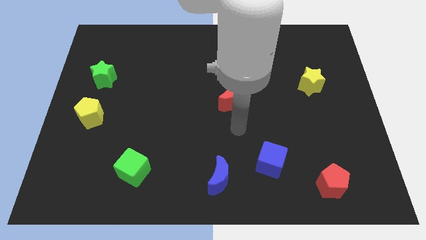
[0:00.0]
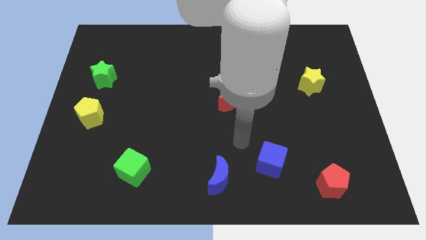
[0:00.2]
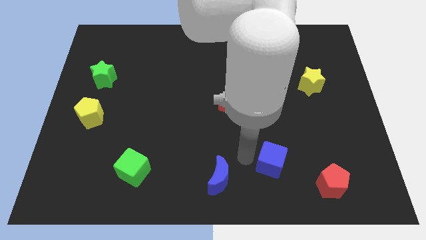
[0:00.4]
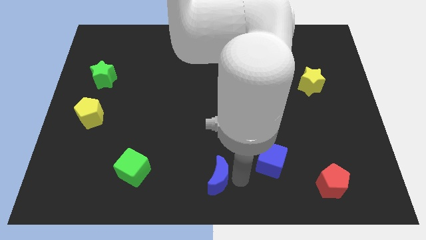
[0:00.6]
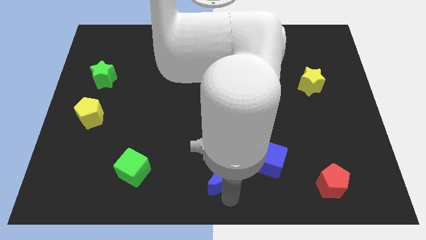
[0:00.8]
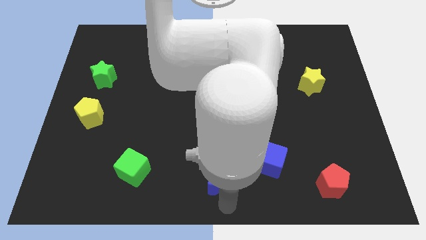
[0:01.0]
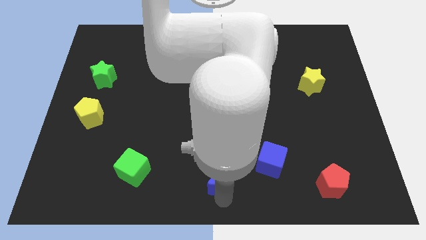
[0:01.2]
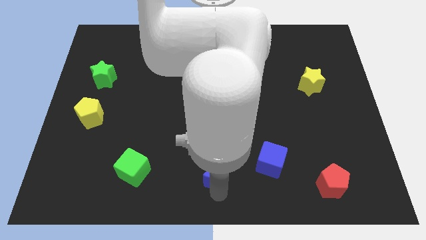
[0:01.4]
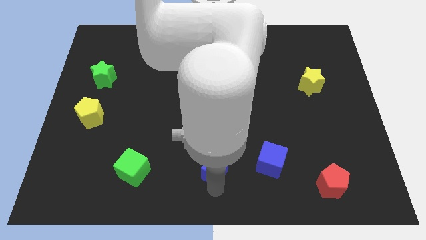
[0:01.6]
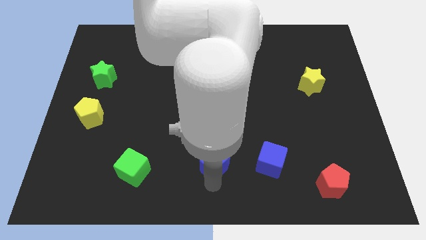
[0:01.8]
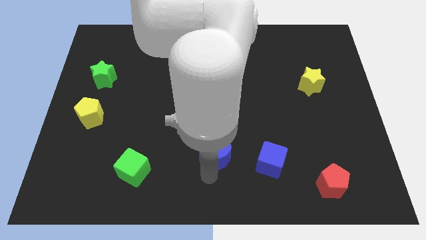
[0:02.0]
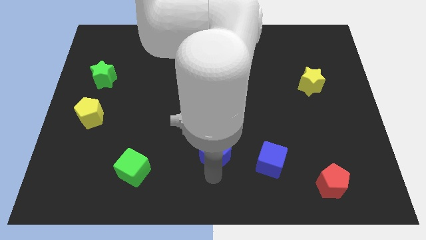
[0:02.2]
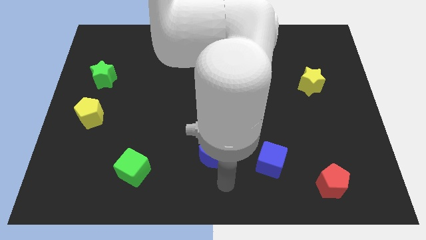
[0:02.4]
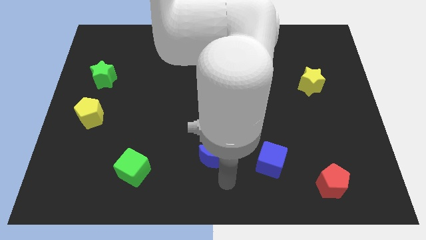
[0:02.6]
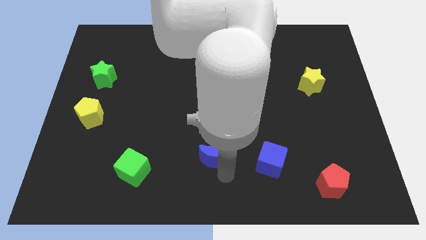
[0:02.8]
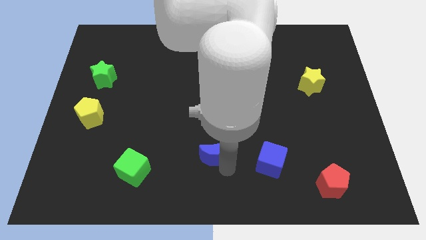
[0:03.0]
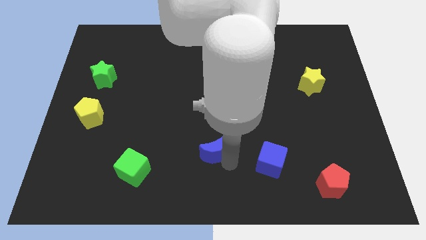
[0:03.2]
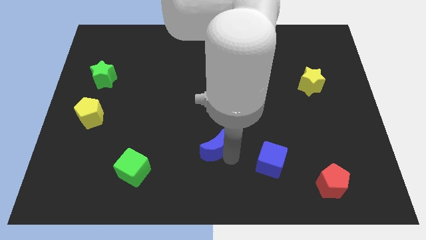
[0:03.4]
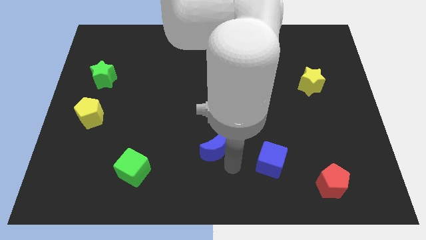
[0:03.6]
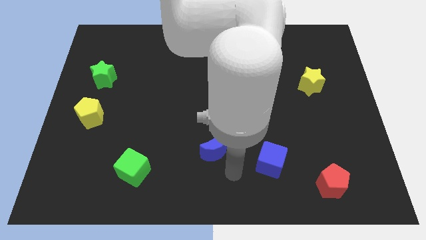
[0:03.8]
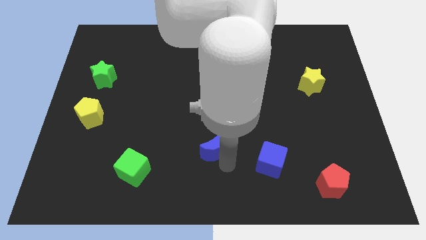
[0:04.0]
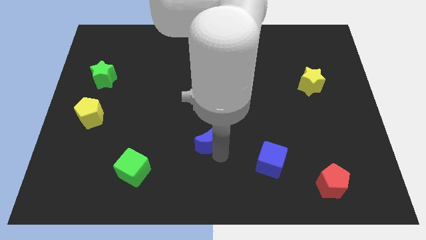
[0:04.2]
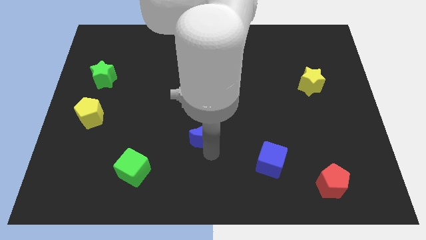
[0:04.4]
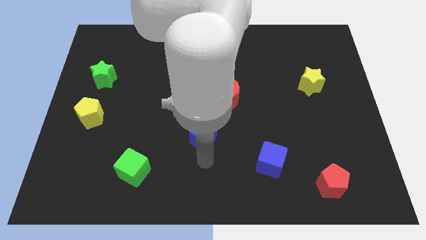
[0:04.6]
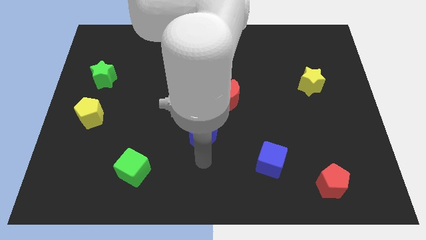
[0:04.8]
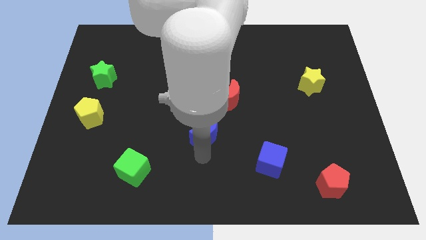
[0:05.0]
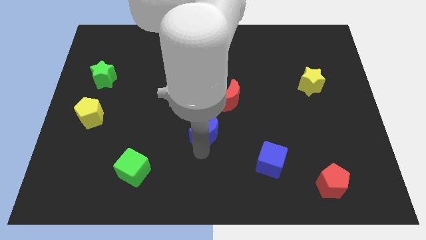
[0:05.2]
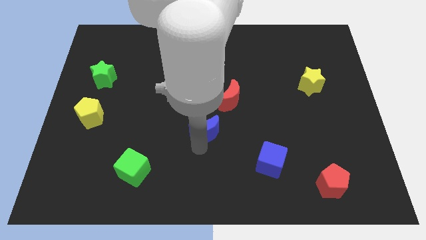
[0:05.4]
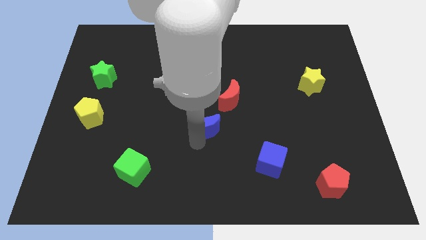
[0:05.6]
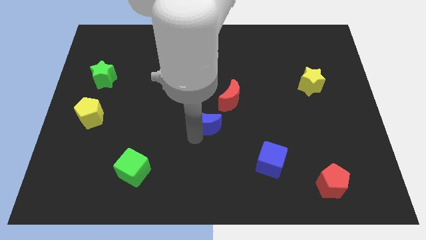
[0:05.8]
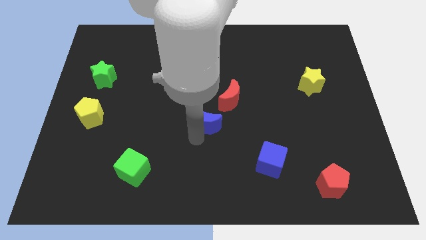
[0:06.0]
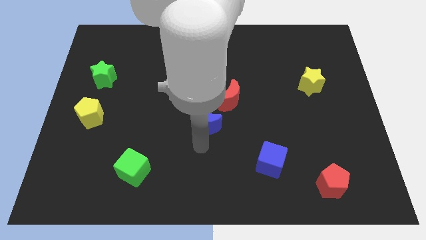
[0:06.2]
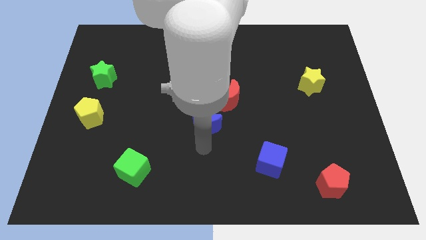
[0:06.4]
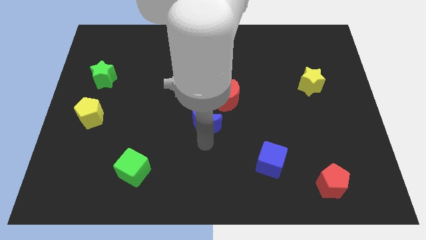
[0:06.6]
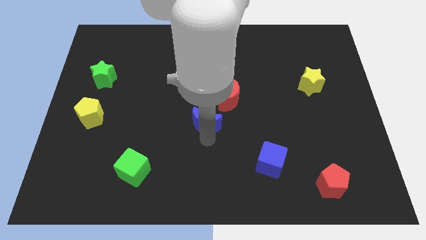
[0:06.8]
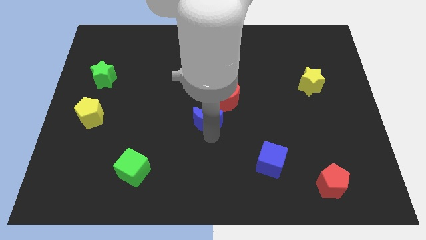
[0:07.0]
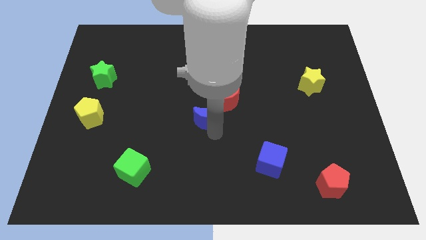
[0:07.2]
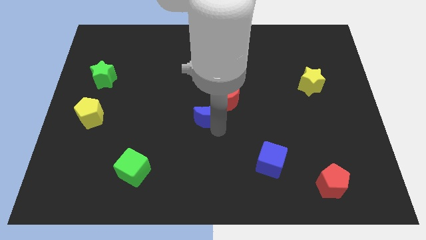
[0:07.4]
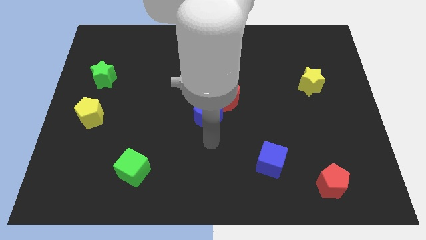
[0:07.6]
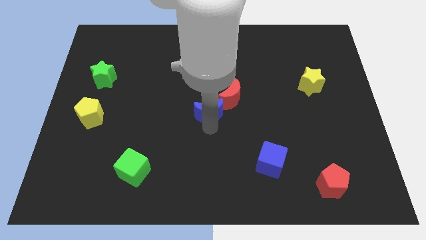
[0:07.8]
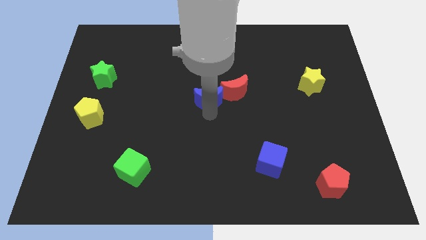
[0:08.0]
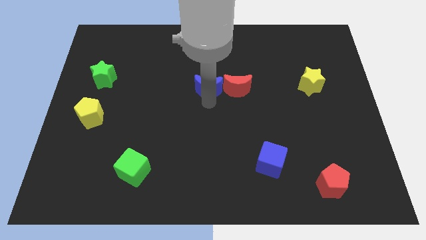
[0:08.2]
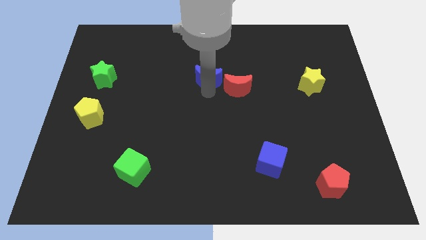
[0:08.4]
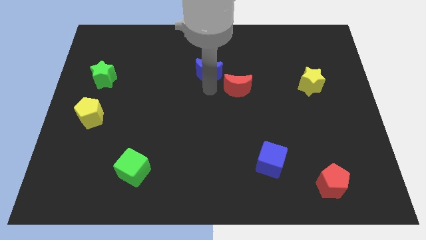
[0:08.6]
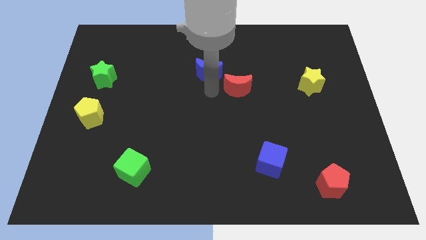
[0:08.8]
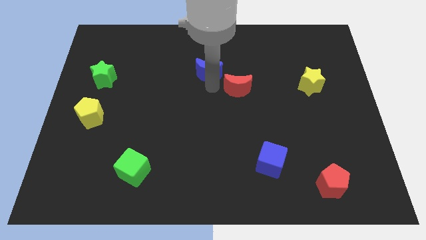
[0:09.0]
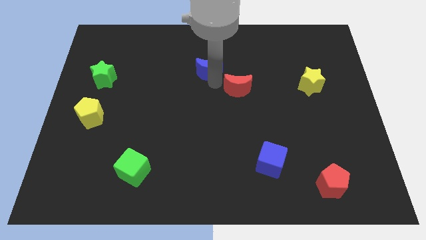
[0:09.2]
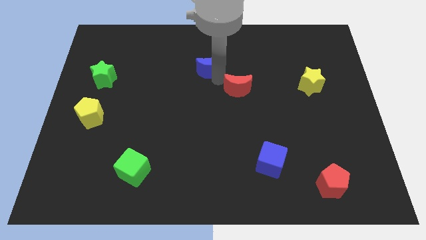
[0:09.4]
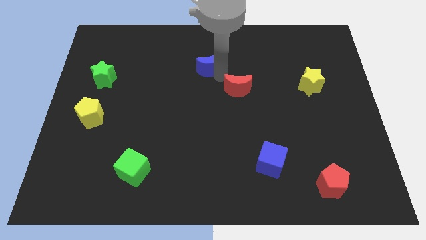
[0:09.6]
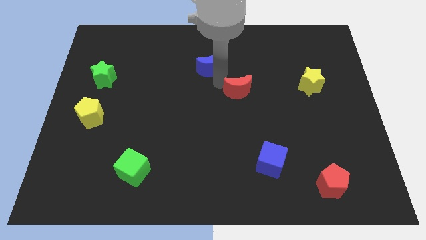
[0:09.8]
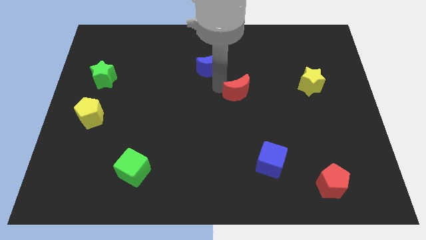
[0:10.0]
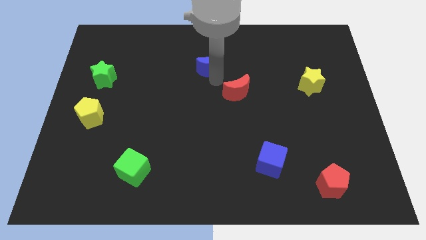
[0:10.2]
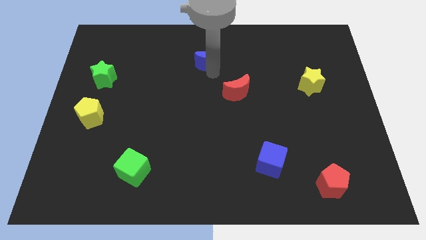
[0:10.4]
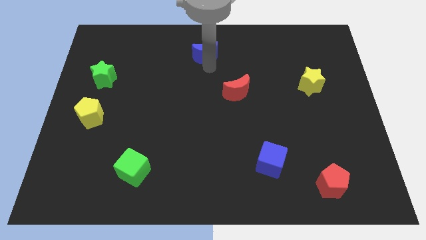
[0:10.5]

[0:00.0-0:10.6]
slide the blue moon to the top side

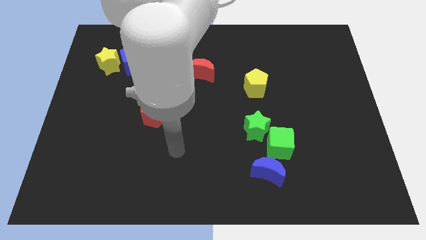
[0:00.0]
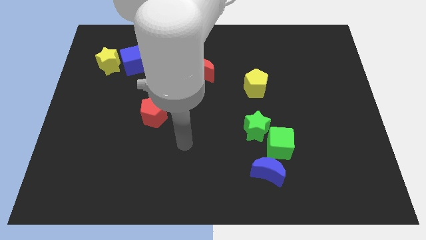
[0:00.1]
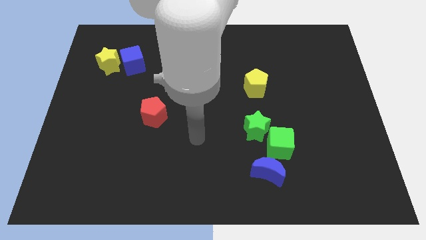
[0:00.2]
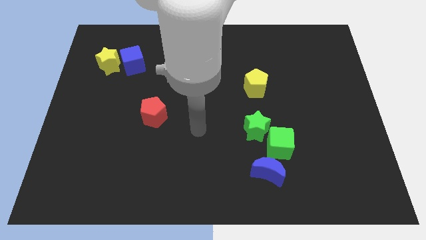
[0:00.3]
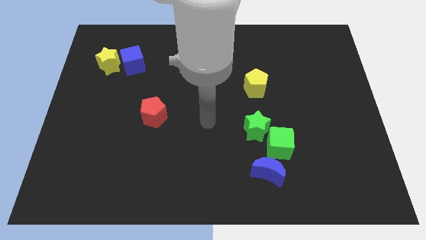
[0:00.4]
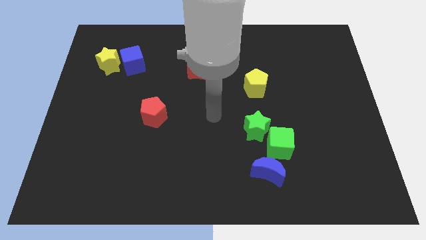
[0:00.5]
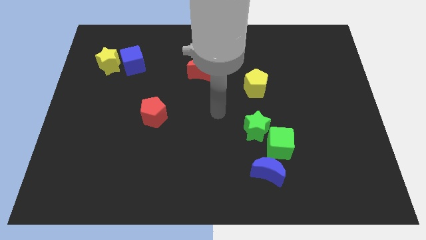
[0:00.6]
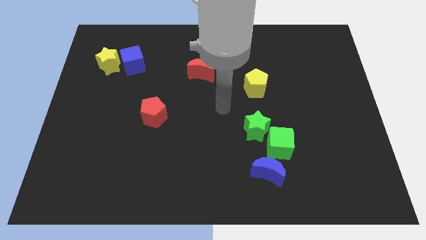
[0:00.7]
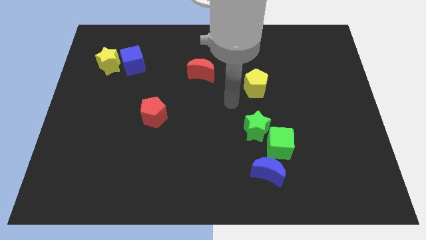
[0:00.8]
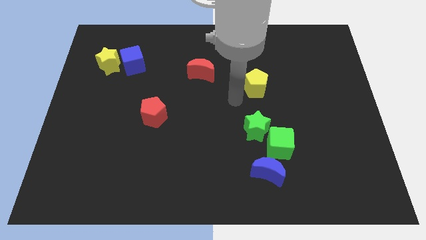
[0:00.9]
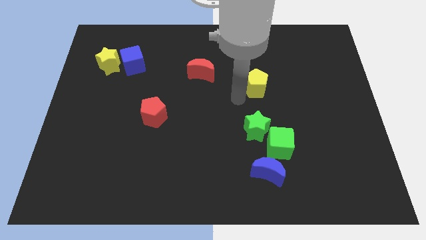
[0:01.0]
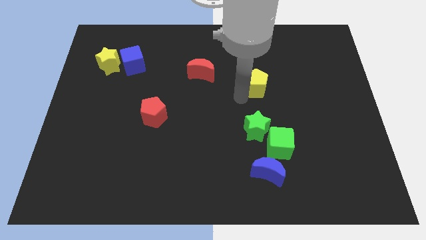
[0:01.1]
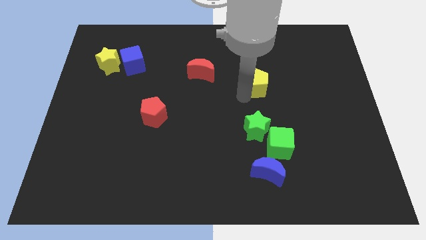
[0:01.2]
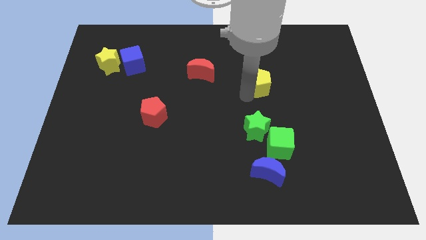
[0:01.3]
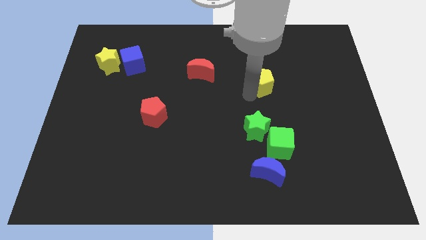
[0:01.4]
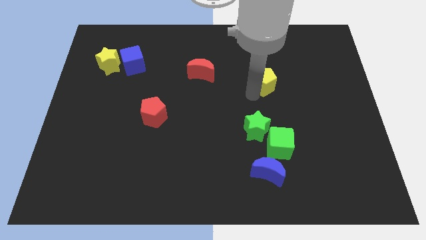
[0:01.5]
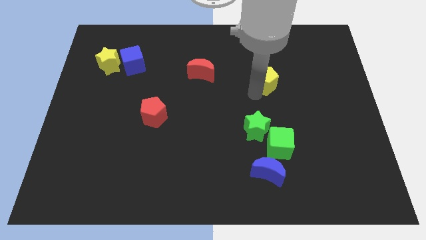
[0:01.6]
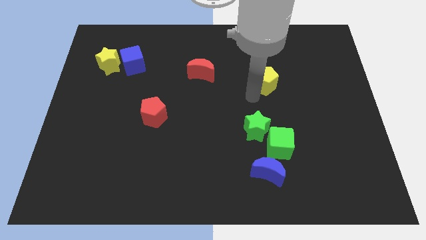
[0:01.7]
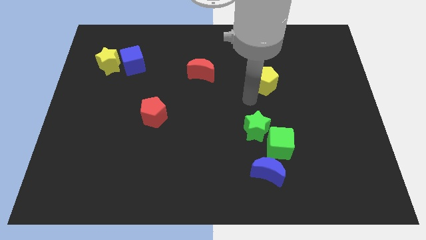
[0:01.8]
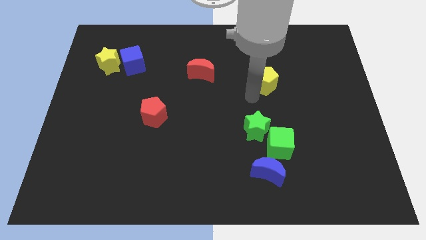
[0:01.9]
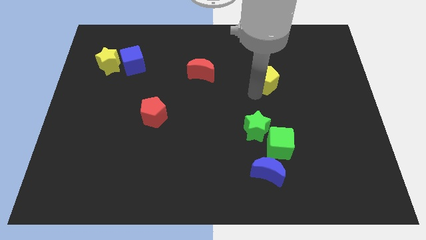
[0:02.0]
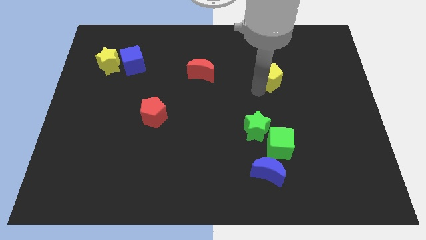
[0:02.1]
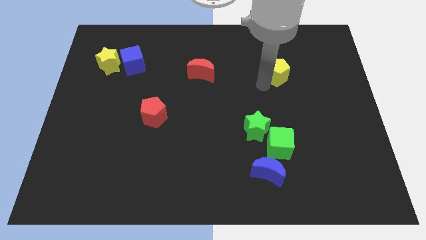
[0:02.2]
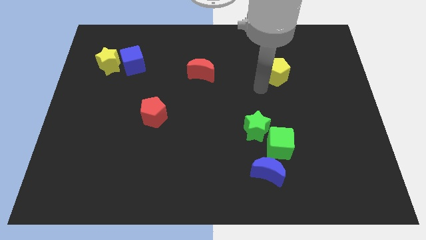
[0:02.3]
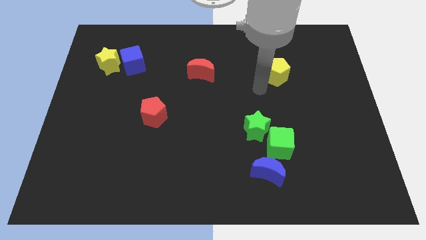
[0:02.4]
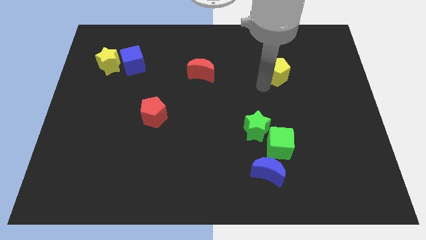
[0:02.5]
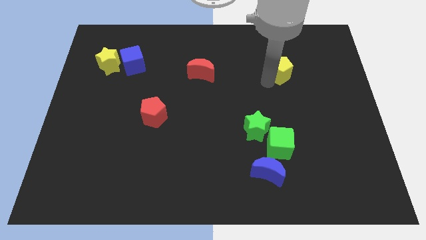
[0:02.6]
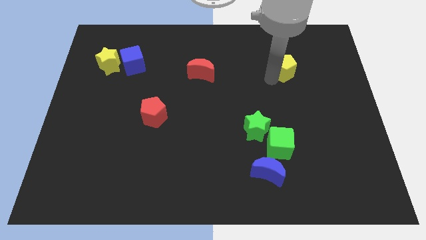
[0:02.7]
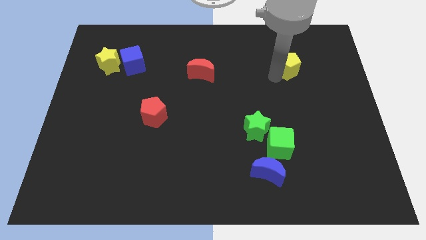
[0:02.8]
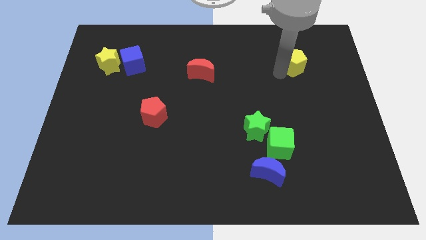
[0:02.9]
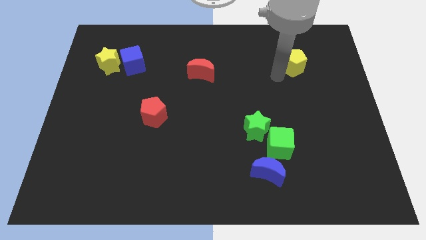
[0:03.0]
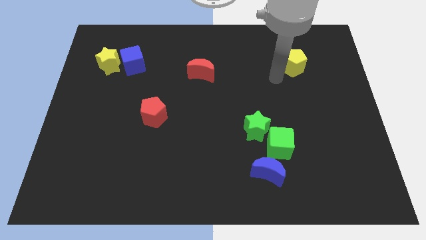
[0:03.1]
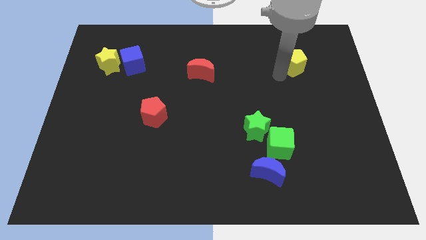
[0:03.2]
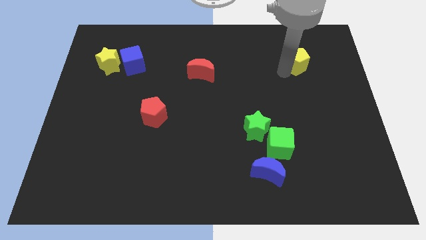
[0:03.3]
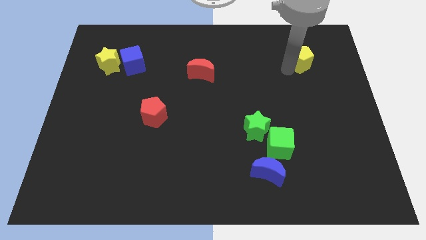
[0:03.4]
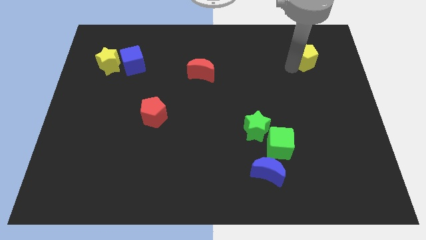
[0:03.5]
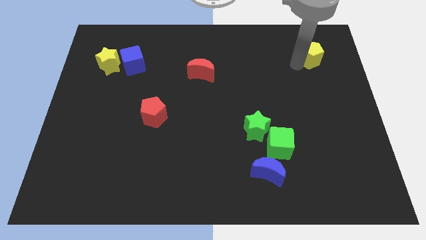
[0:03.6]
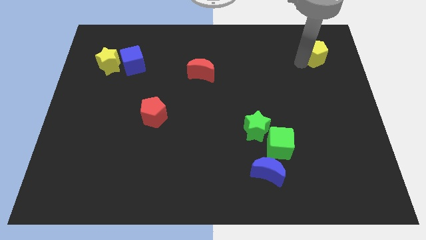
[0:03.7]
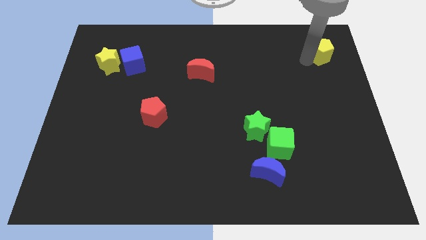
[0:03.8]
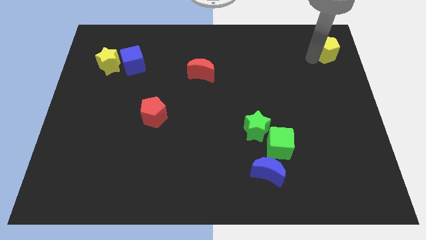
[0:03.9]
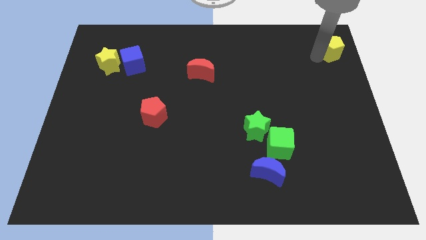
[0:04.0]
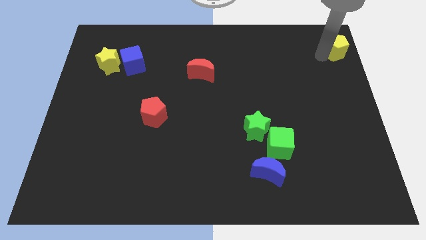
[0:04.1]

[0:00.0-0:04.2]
put the yellow pentagon to the top right
